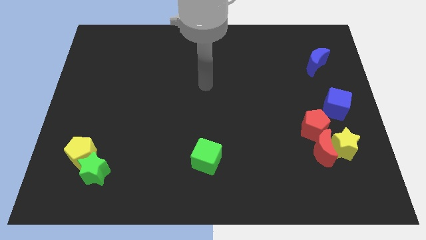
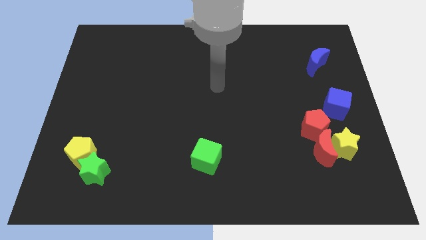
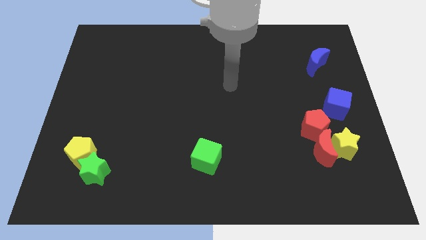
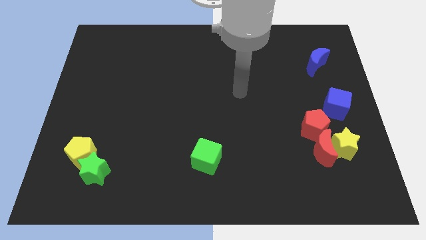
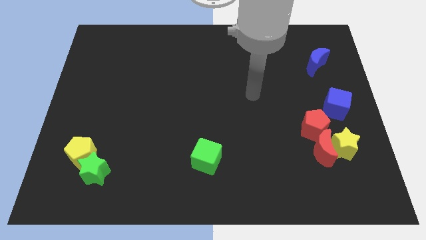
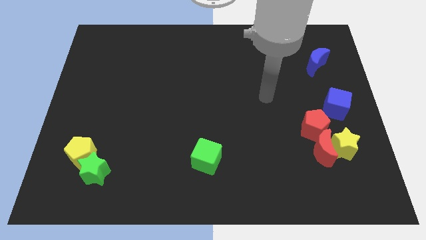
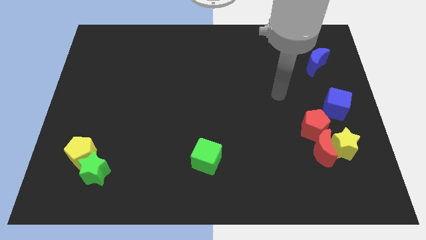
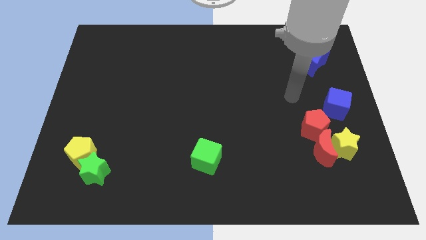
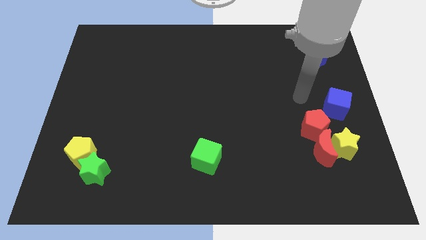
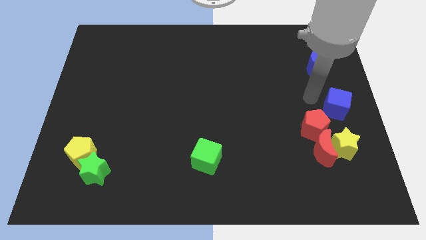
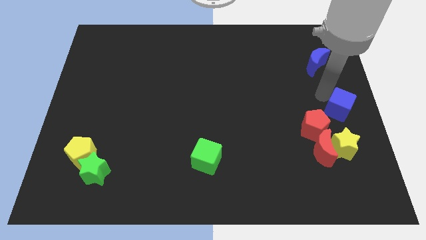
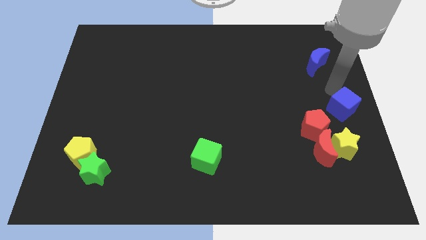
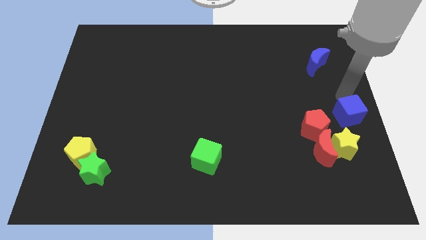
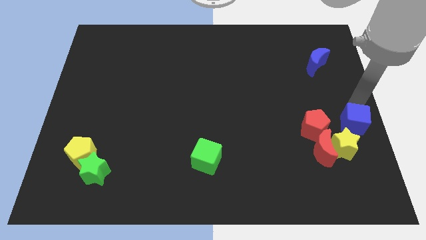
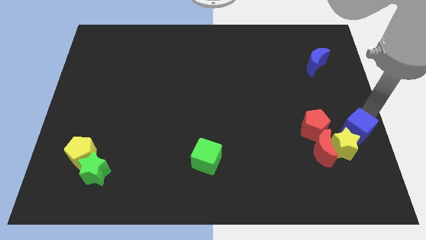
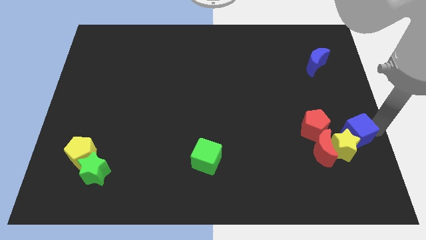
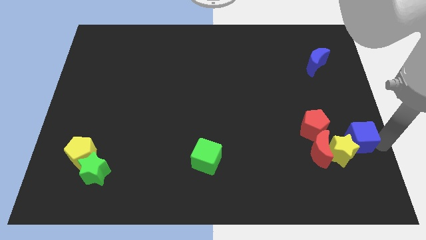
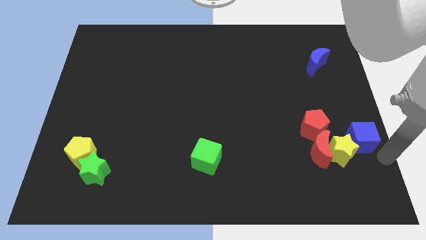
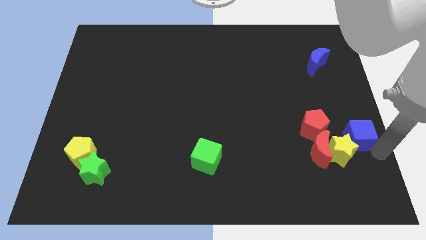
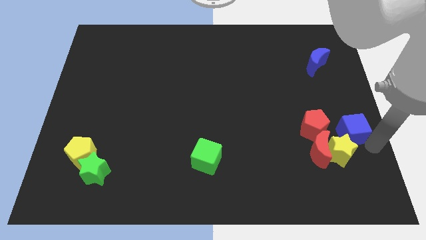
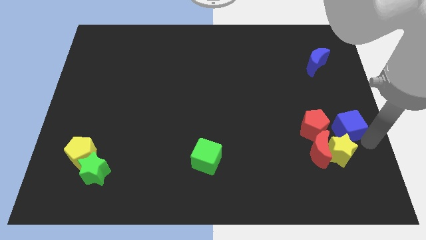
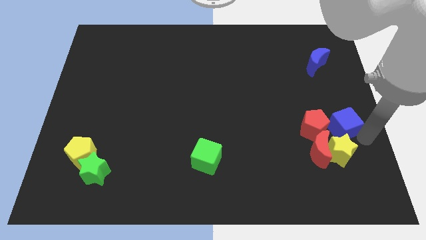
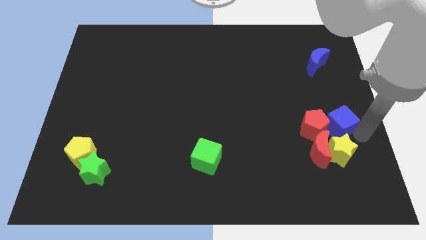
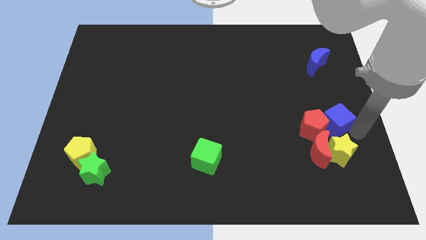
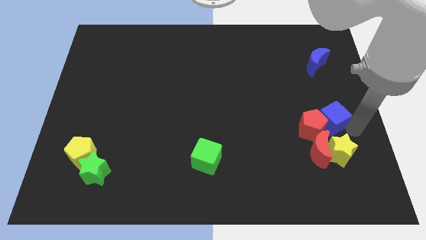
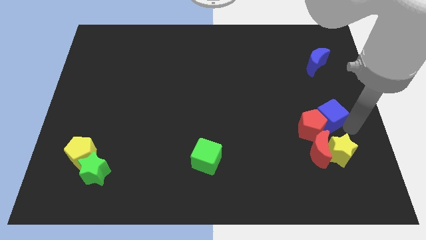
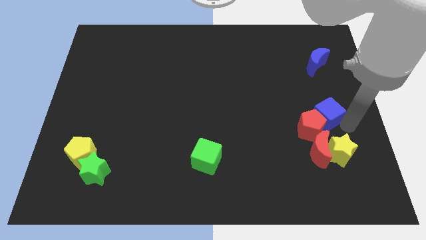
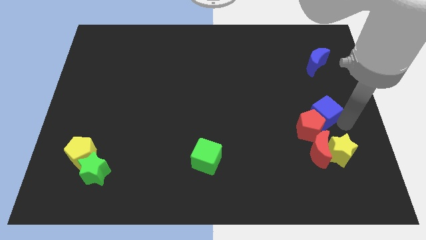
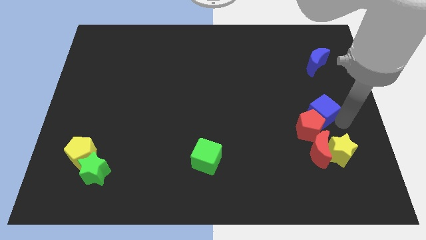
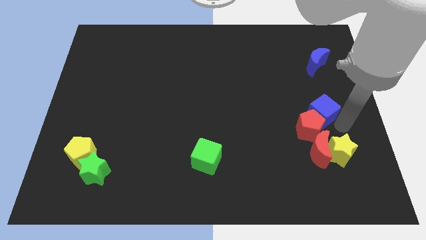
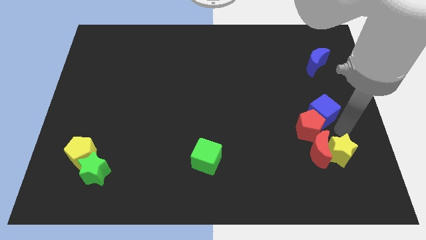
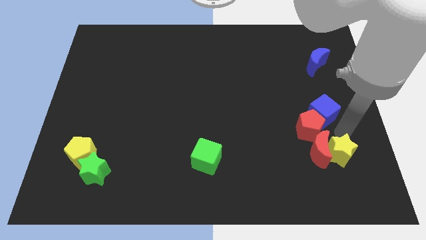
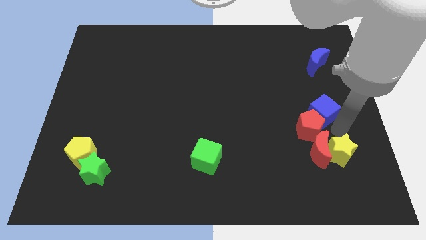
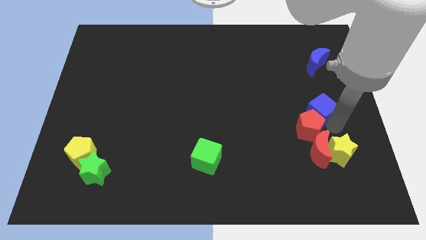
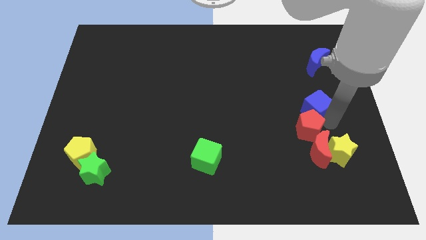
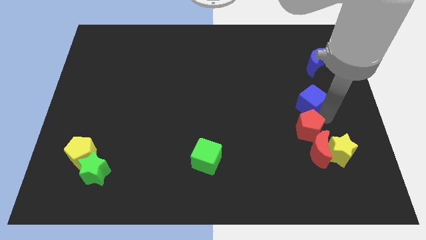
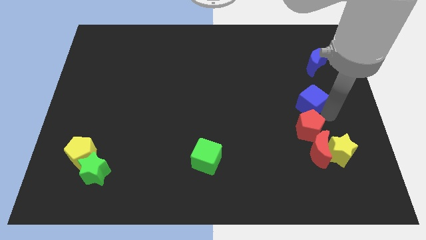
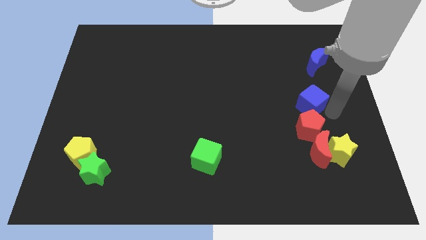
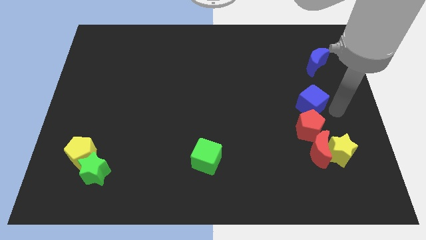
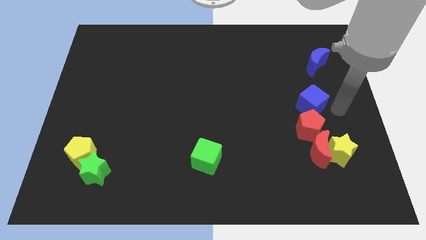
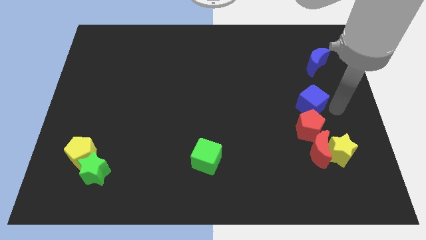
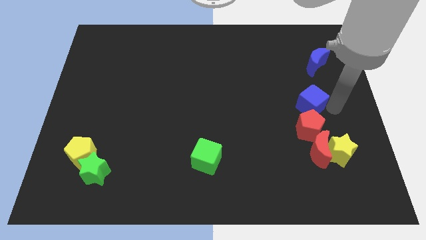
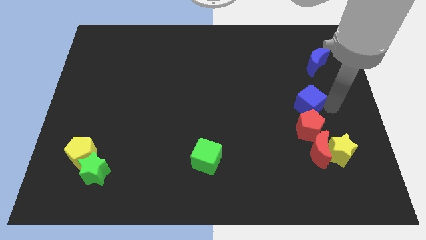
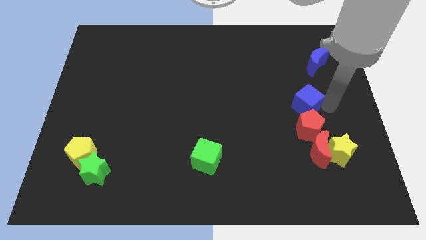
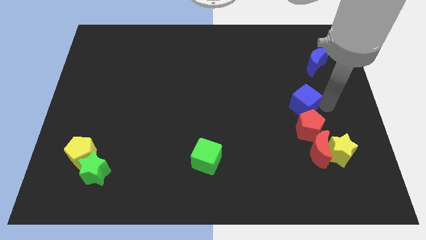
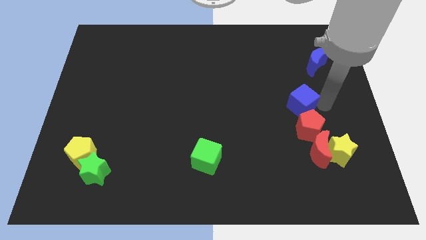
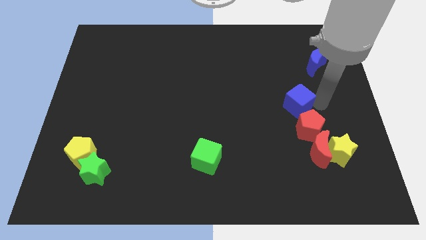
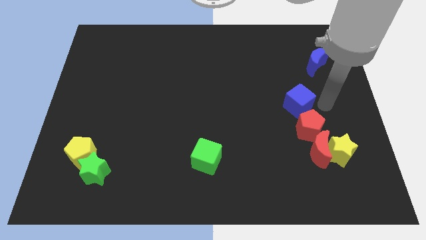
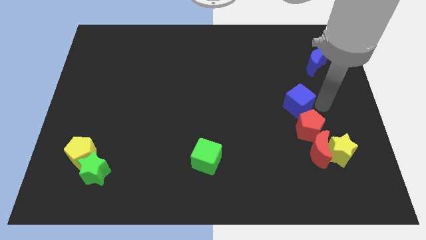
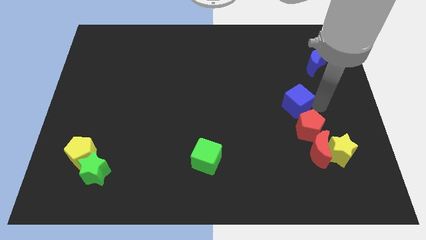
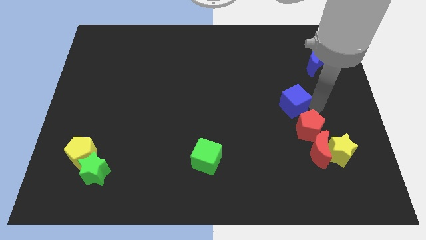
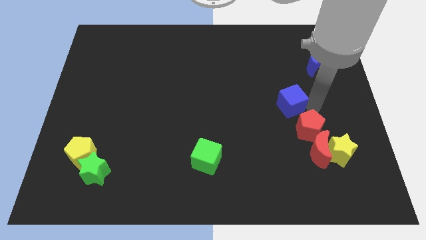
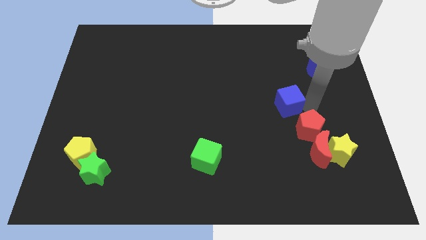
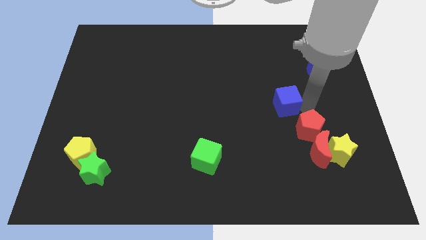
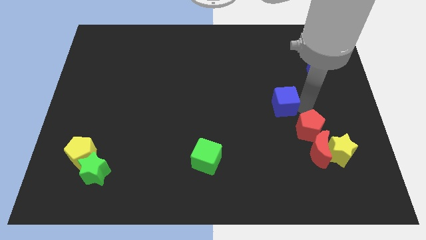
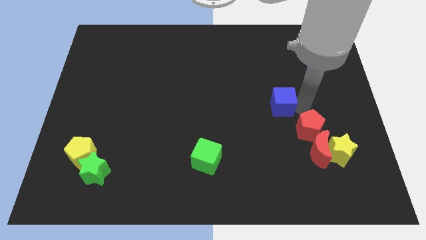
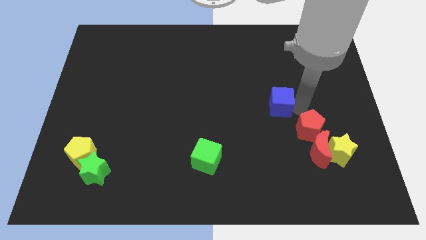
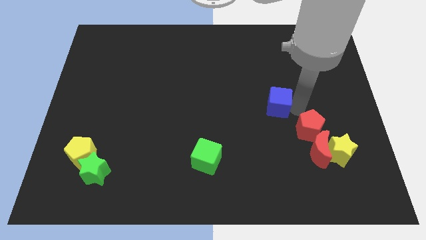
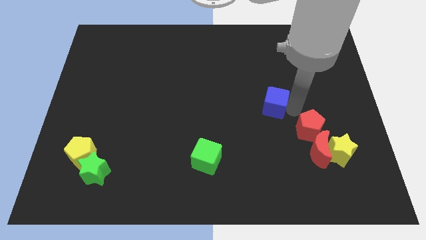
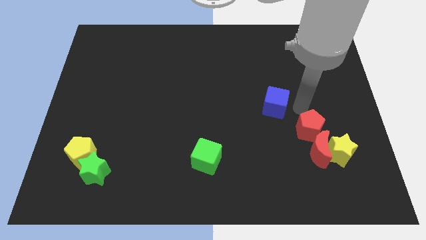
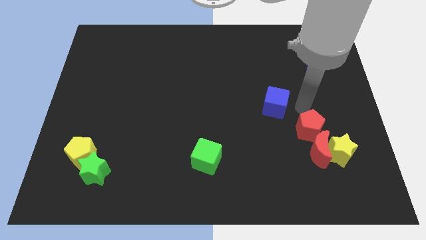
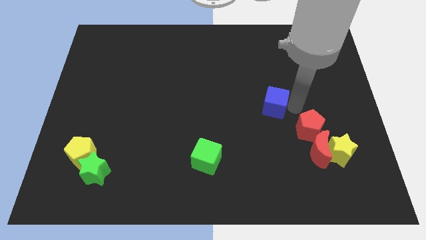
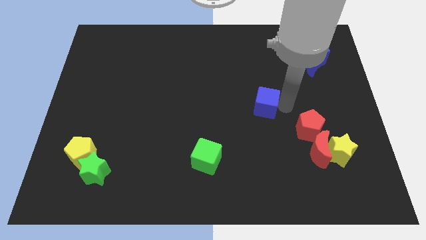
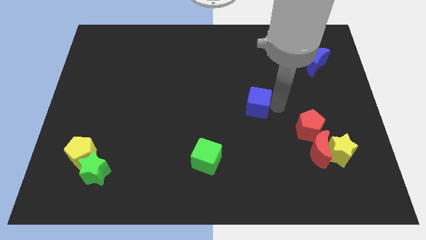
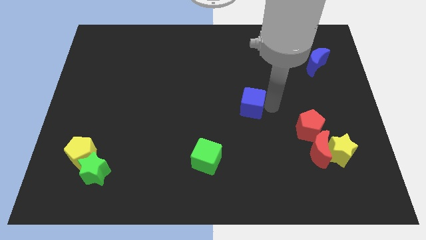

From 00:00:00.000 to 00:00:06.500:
slide the blue cube to the left

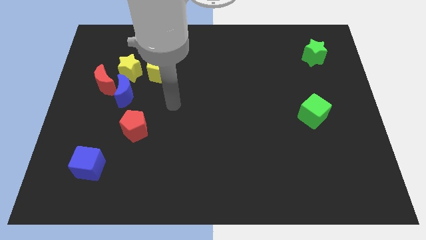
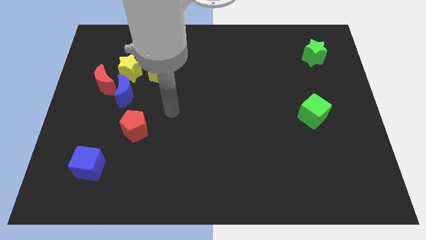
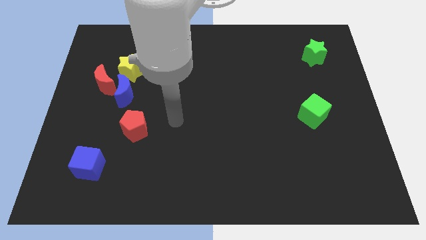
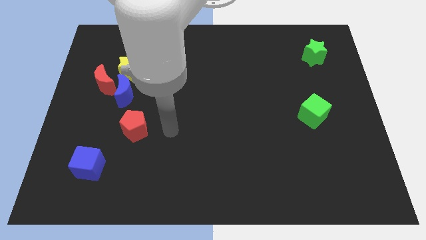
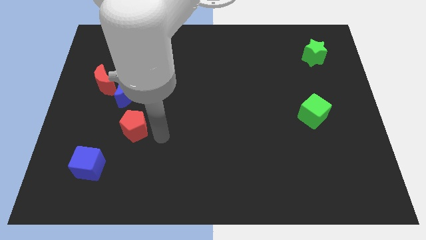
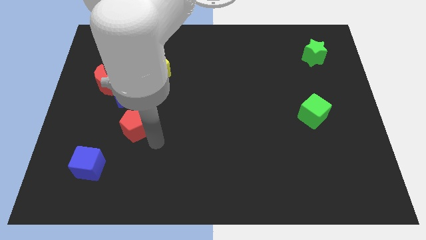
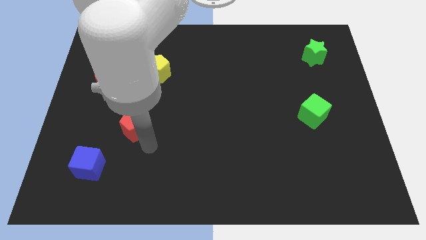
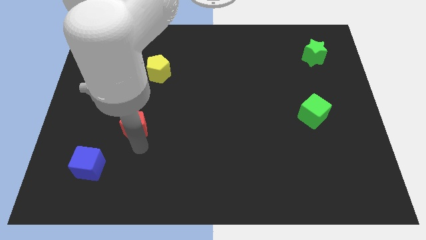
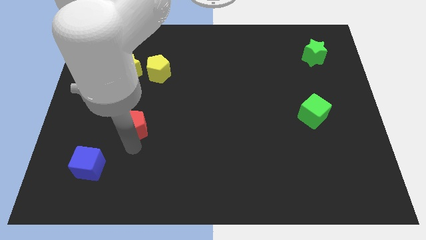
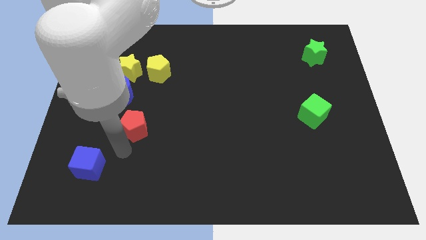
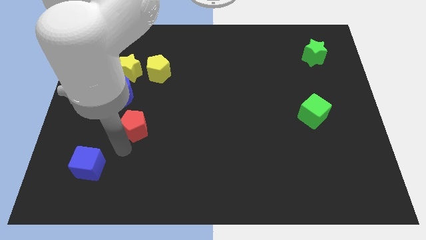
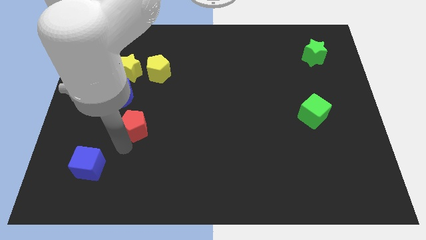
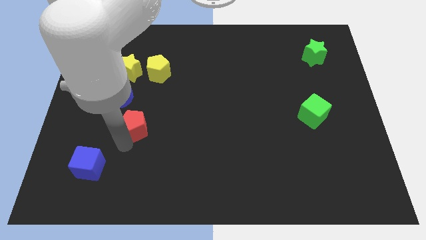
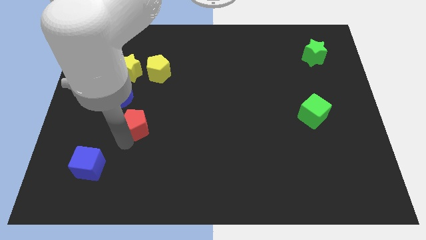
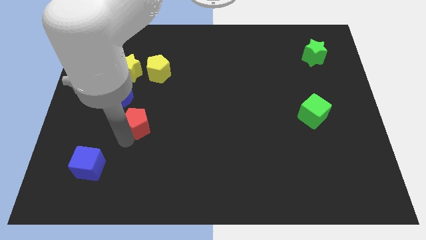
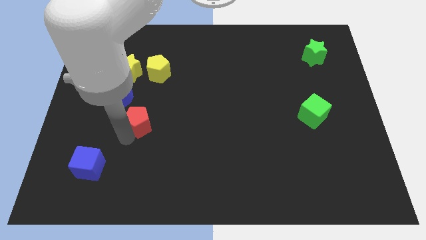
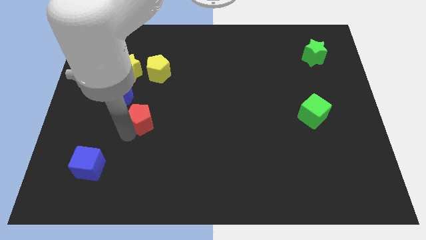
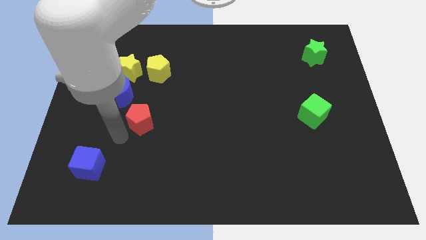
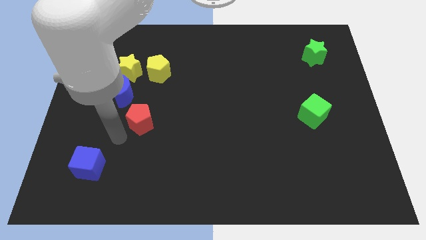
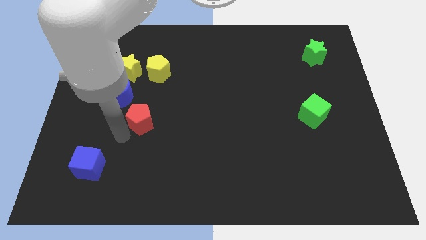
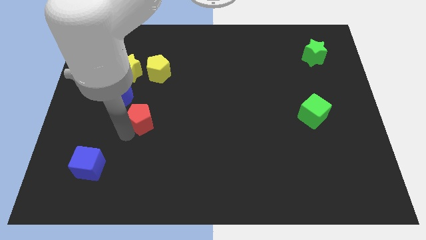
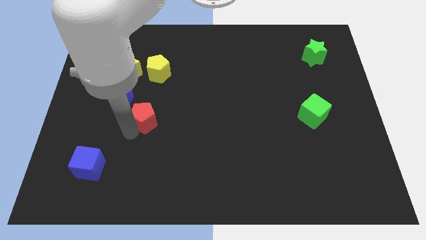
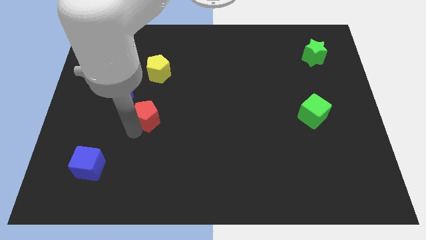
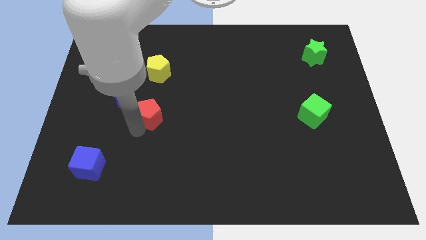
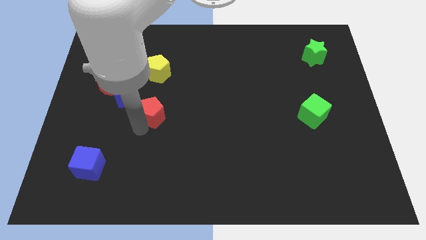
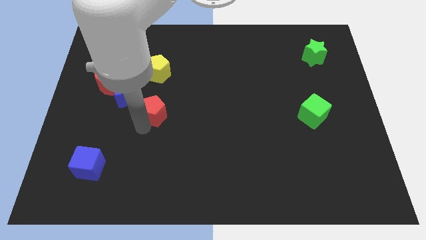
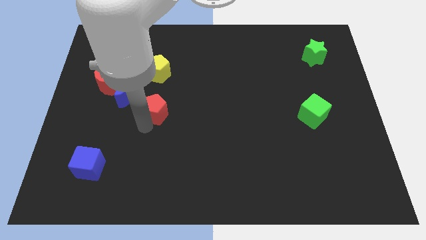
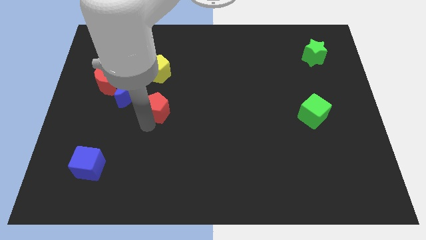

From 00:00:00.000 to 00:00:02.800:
move the red pentagon up and then right a little
